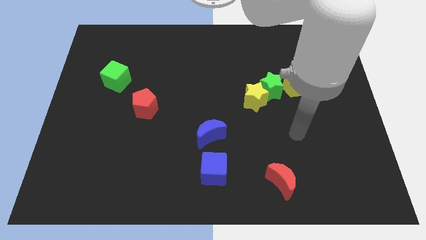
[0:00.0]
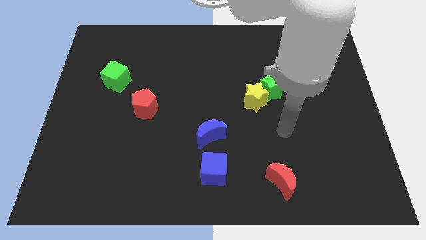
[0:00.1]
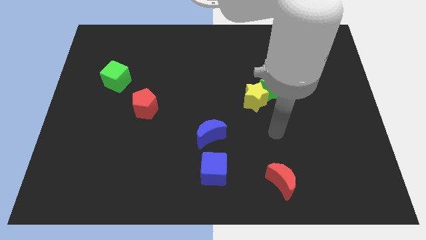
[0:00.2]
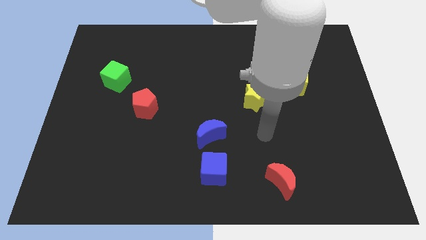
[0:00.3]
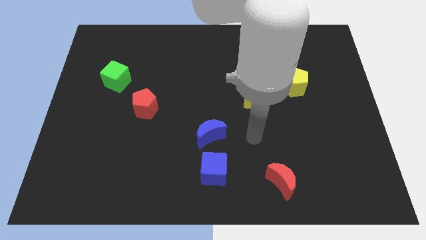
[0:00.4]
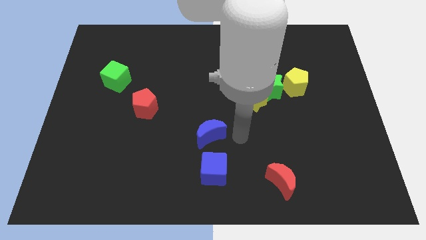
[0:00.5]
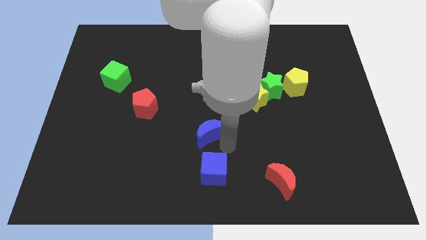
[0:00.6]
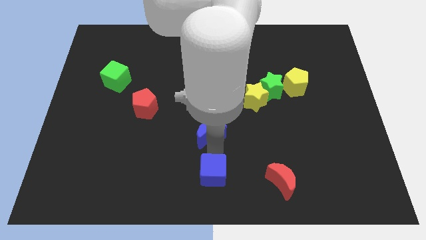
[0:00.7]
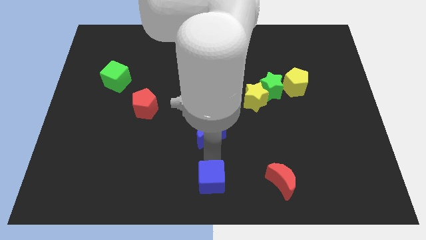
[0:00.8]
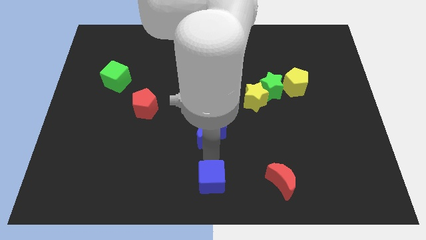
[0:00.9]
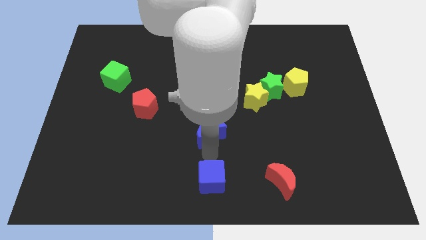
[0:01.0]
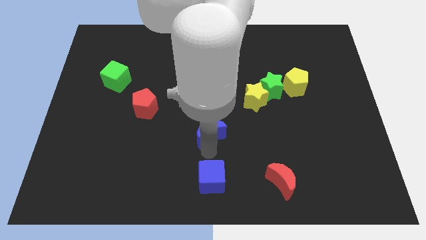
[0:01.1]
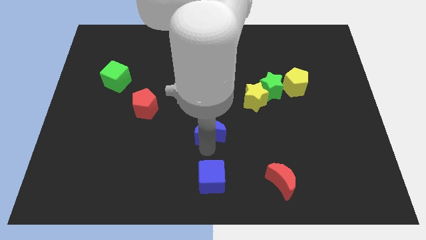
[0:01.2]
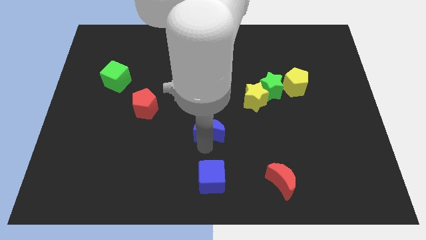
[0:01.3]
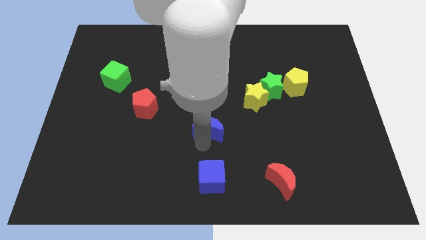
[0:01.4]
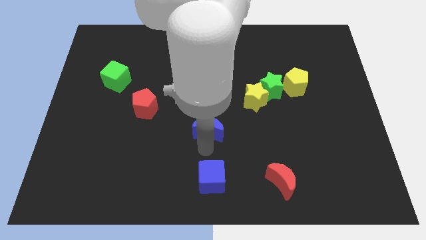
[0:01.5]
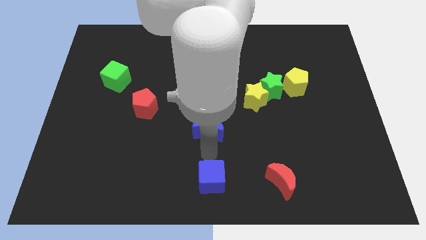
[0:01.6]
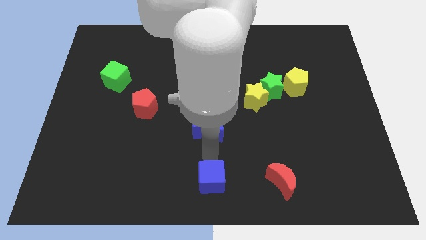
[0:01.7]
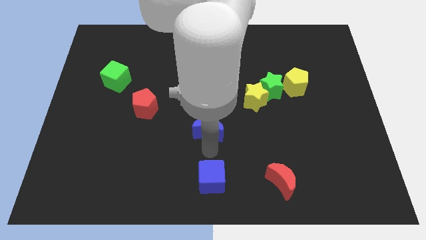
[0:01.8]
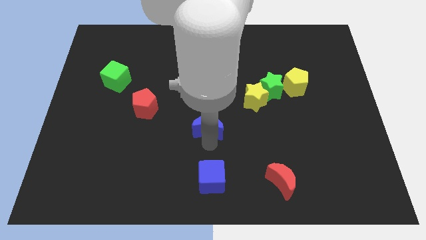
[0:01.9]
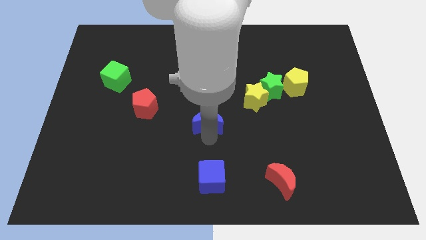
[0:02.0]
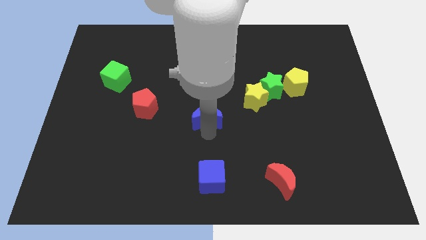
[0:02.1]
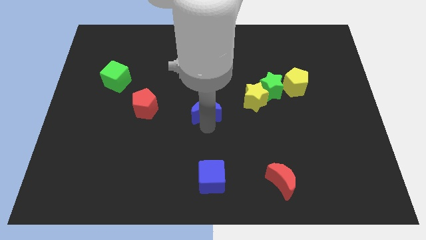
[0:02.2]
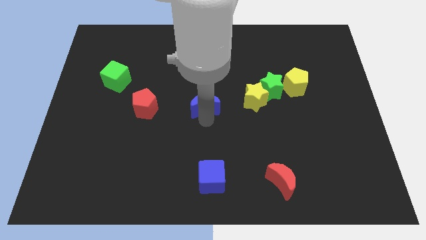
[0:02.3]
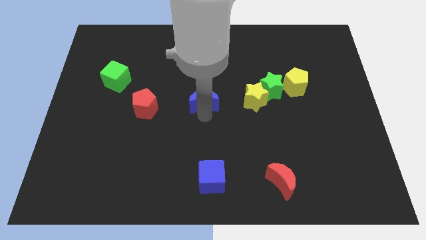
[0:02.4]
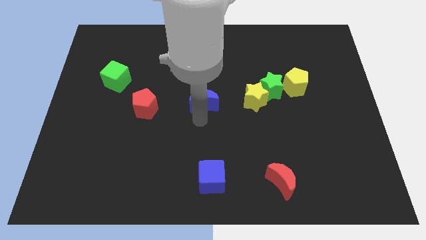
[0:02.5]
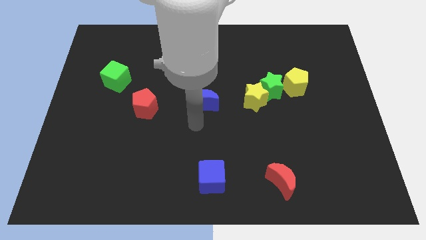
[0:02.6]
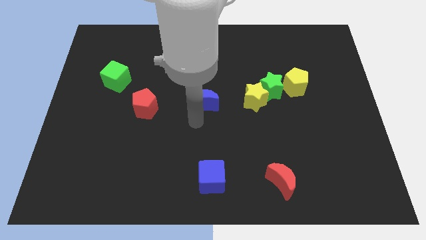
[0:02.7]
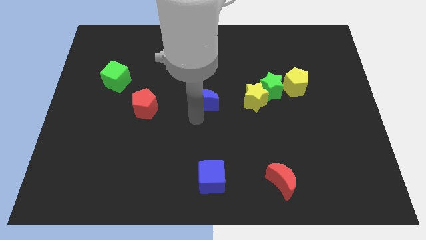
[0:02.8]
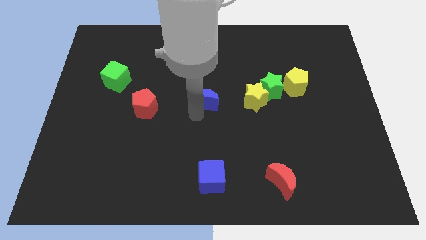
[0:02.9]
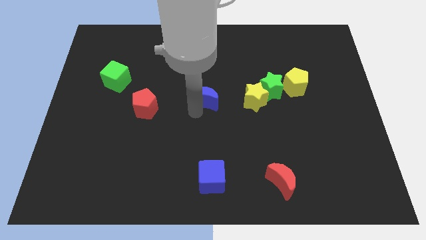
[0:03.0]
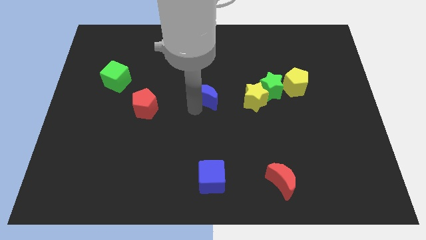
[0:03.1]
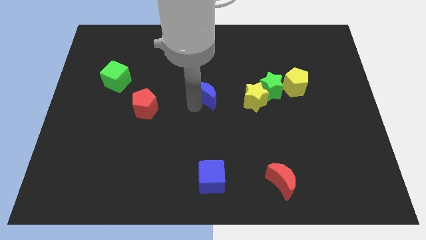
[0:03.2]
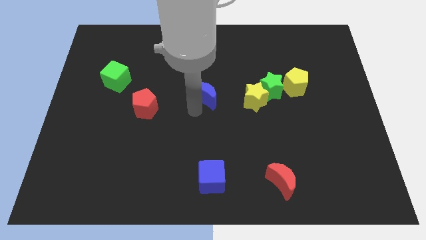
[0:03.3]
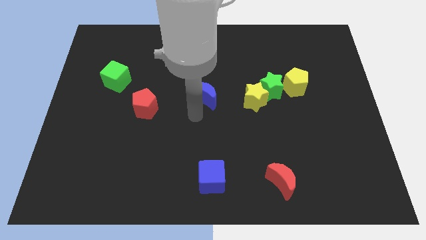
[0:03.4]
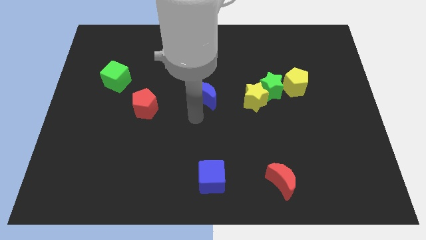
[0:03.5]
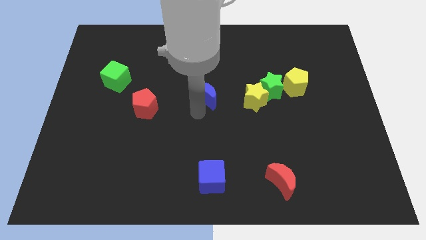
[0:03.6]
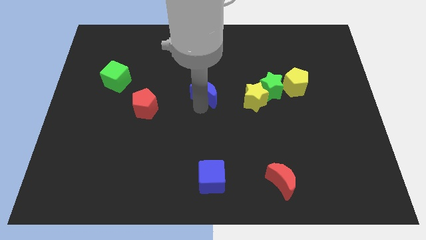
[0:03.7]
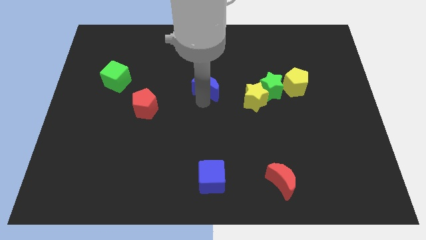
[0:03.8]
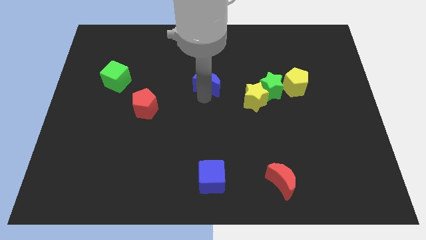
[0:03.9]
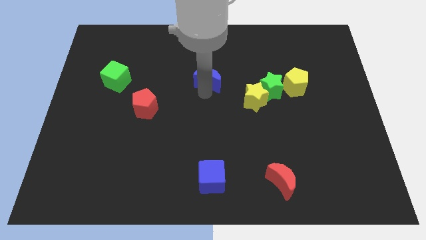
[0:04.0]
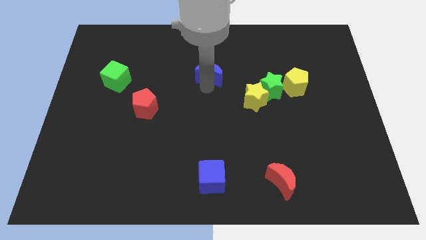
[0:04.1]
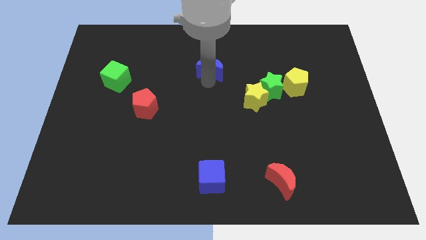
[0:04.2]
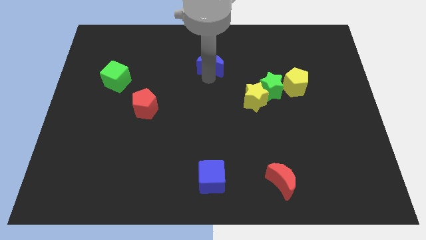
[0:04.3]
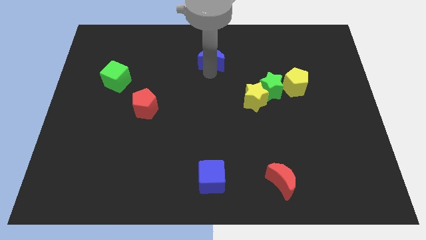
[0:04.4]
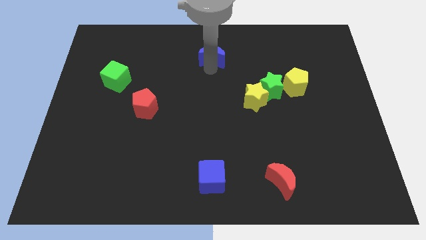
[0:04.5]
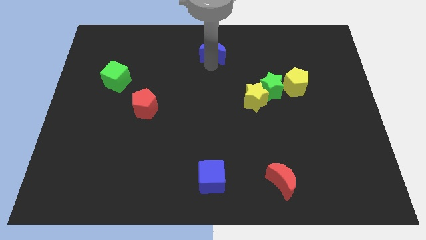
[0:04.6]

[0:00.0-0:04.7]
push the blue moon to the top

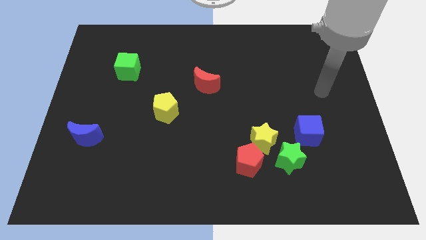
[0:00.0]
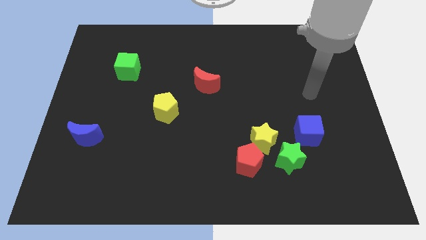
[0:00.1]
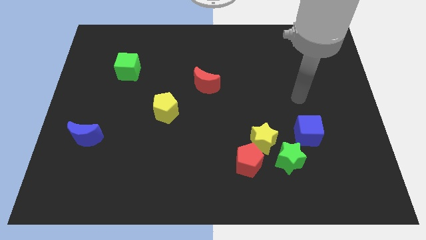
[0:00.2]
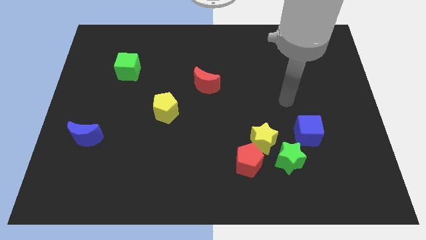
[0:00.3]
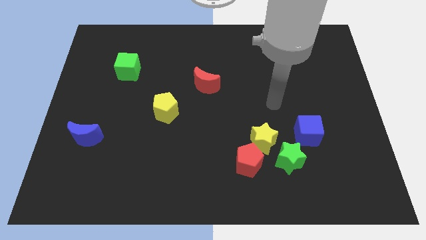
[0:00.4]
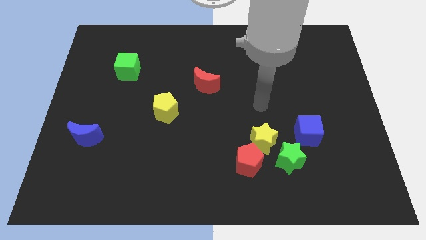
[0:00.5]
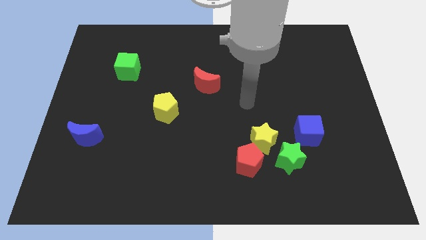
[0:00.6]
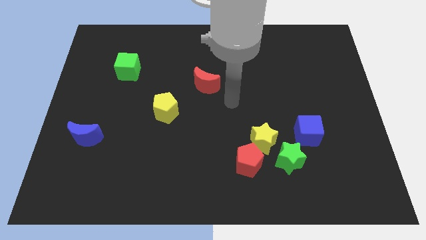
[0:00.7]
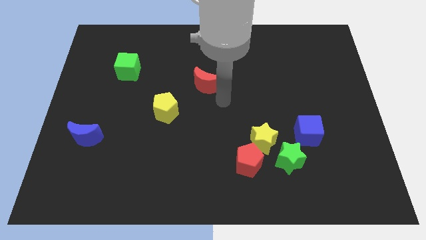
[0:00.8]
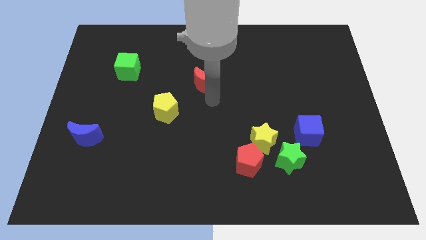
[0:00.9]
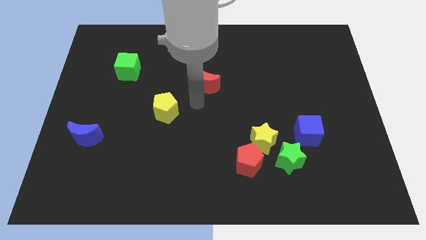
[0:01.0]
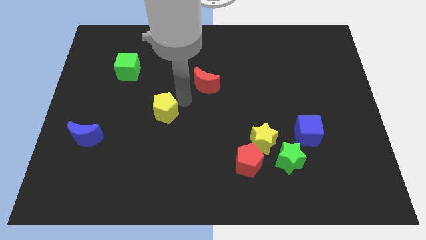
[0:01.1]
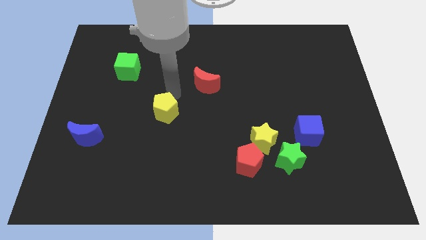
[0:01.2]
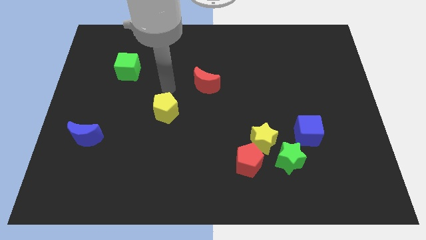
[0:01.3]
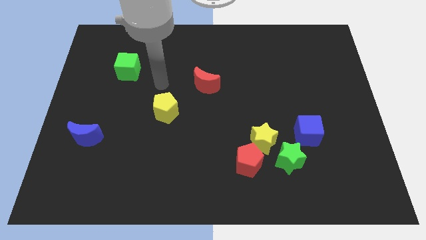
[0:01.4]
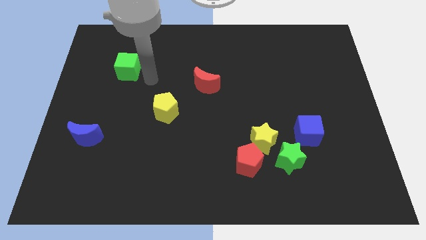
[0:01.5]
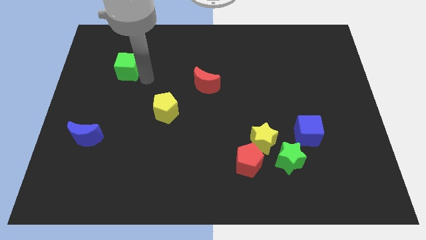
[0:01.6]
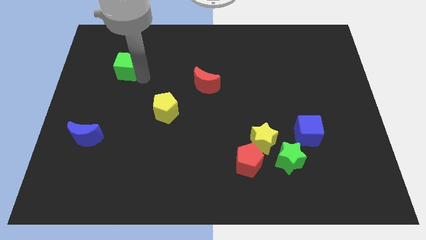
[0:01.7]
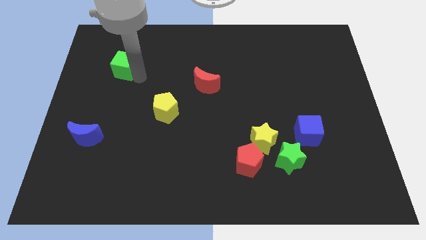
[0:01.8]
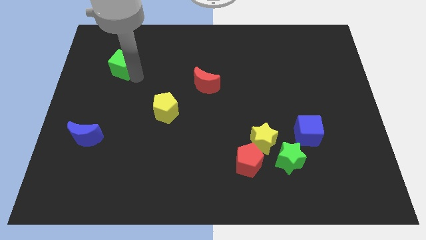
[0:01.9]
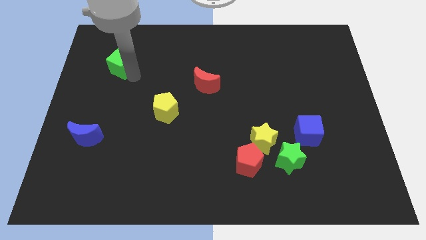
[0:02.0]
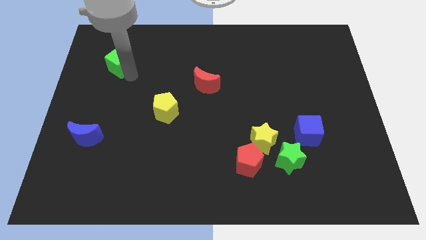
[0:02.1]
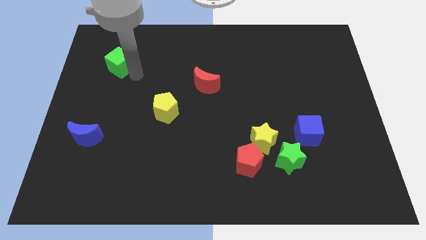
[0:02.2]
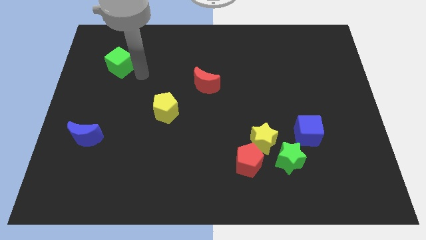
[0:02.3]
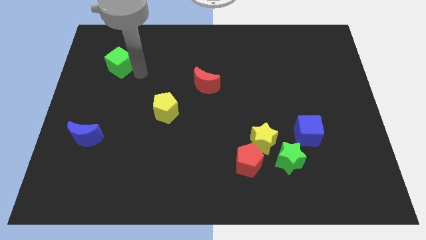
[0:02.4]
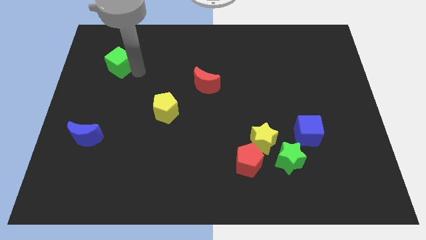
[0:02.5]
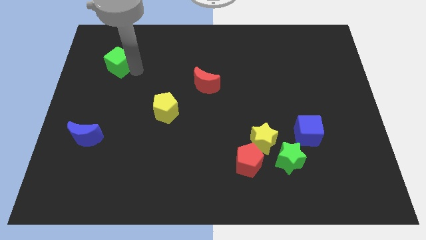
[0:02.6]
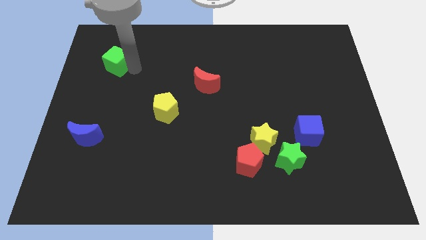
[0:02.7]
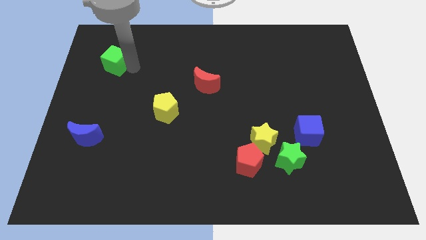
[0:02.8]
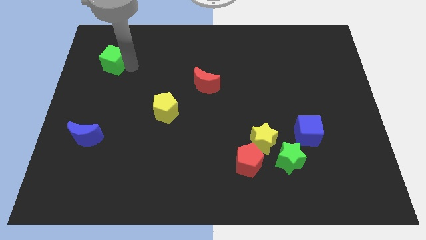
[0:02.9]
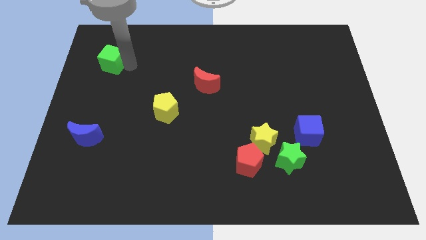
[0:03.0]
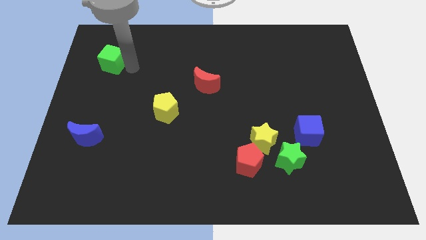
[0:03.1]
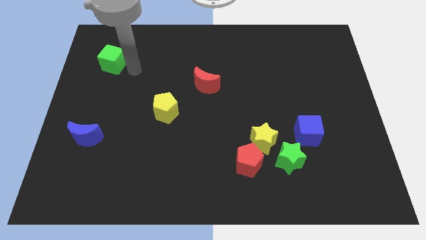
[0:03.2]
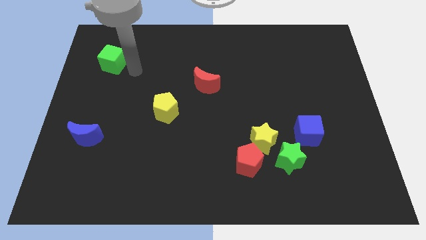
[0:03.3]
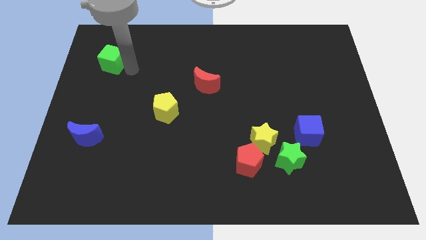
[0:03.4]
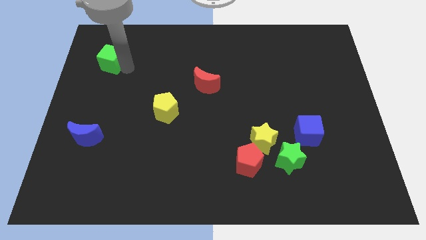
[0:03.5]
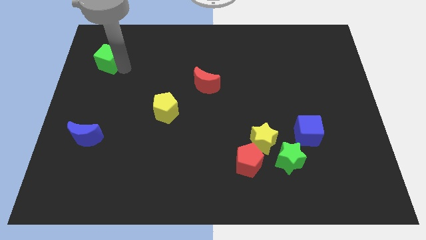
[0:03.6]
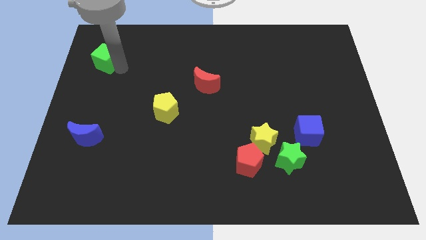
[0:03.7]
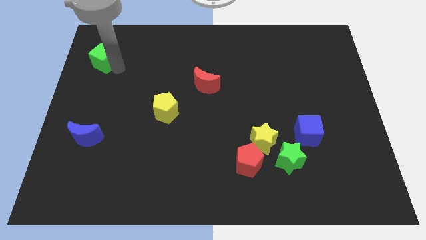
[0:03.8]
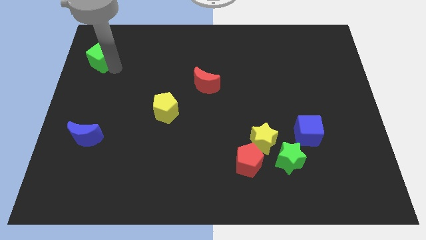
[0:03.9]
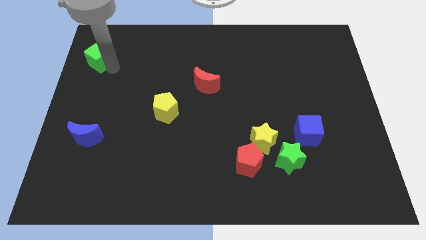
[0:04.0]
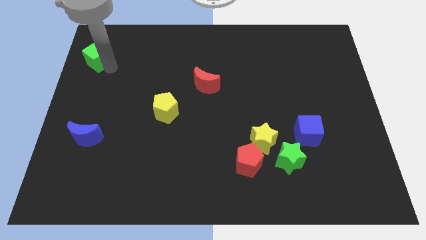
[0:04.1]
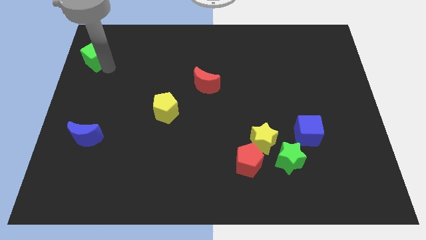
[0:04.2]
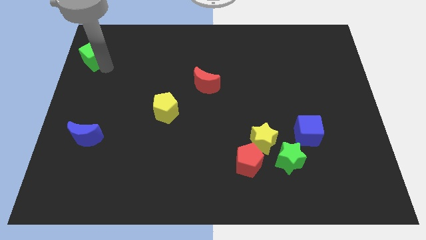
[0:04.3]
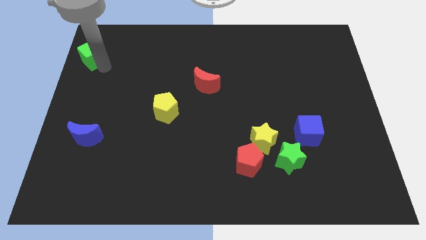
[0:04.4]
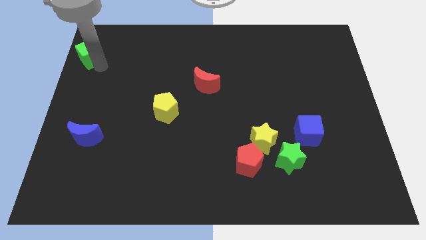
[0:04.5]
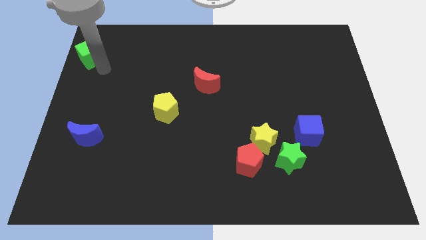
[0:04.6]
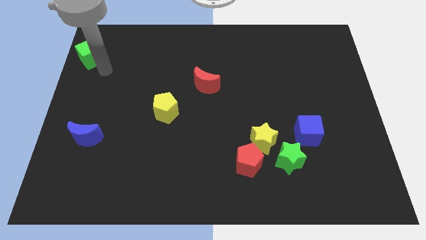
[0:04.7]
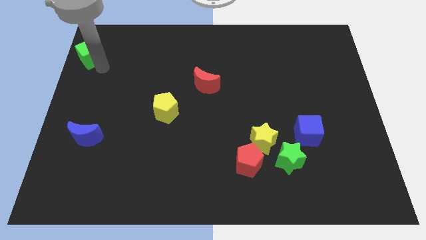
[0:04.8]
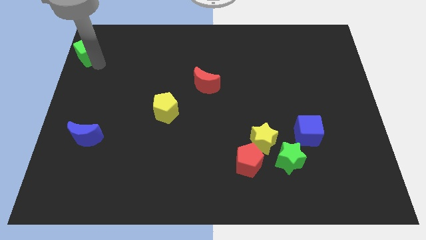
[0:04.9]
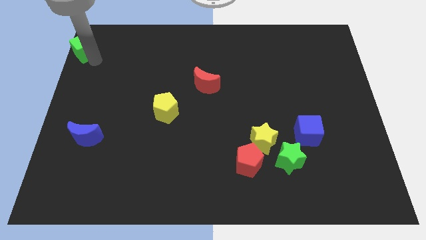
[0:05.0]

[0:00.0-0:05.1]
move the green cube to the top left of the board
